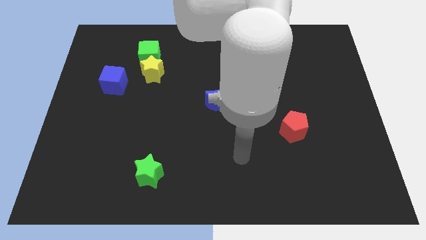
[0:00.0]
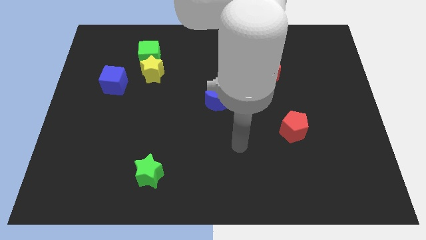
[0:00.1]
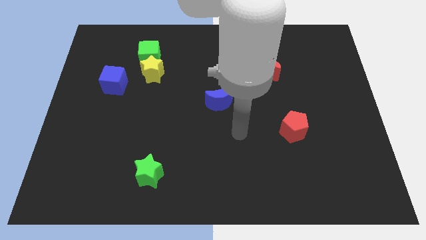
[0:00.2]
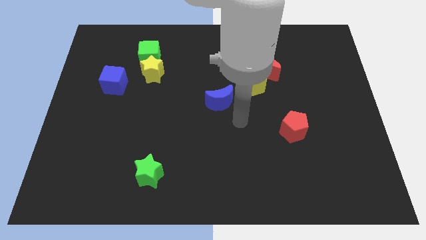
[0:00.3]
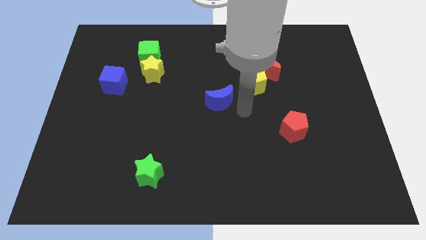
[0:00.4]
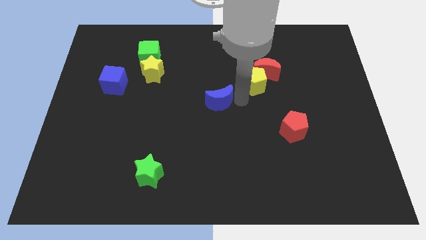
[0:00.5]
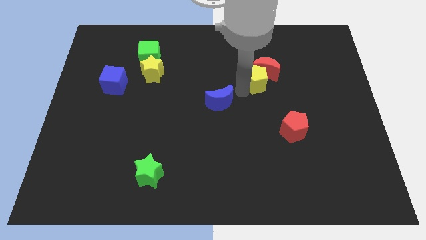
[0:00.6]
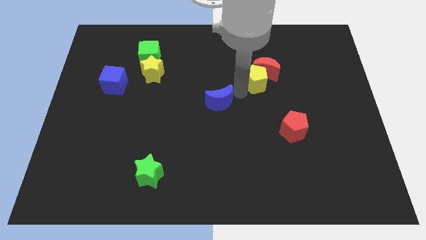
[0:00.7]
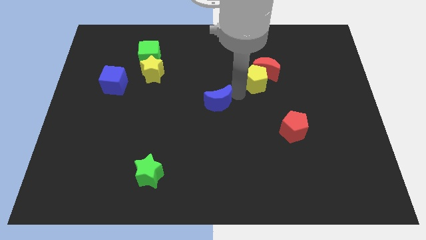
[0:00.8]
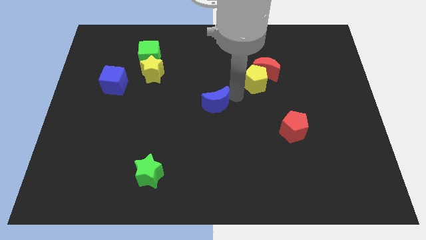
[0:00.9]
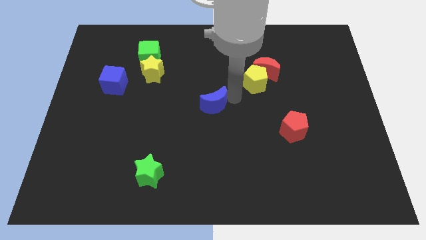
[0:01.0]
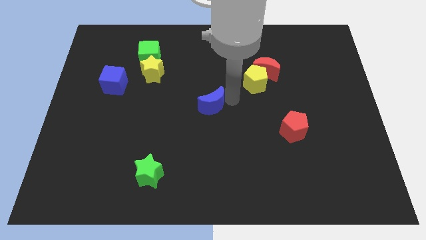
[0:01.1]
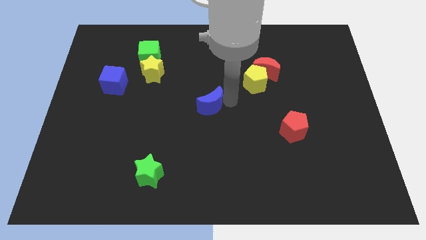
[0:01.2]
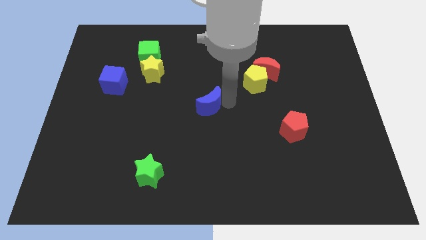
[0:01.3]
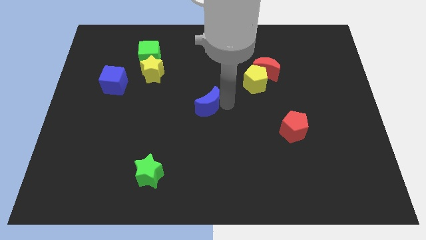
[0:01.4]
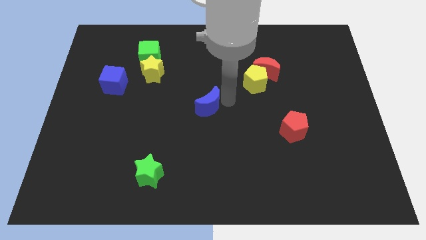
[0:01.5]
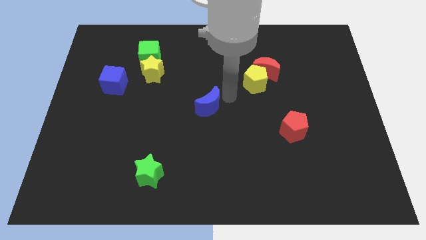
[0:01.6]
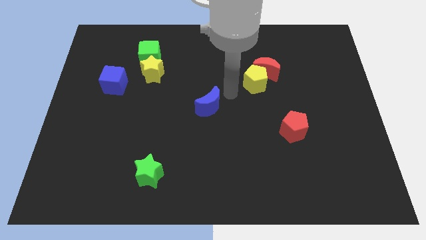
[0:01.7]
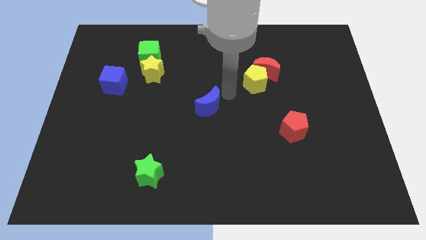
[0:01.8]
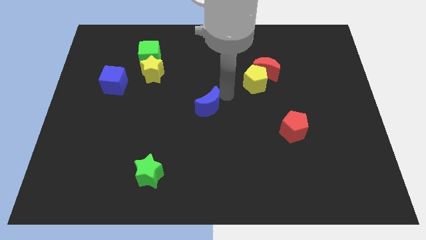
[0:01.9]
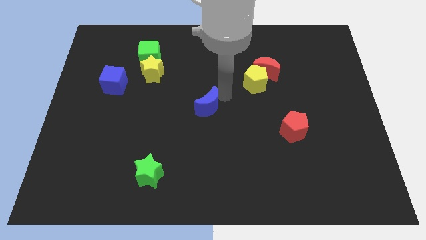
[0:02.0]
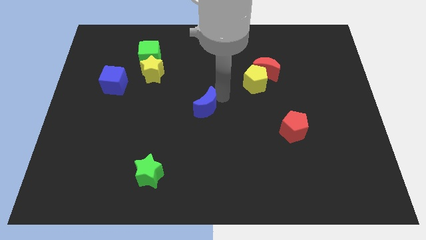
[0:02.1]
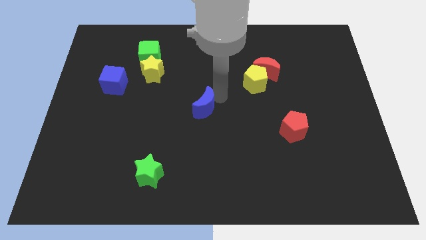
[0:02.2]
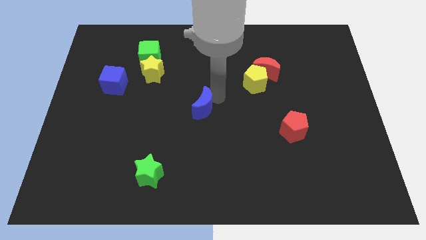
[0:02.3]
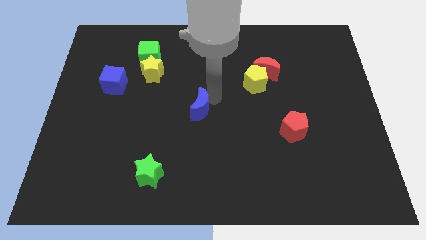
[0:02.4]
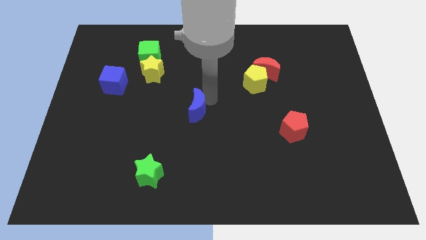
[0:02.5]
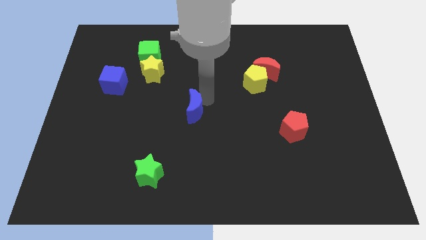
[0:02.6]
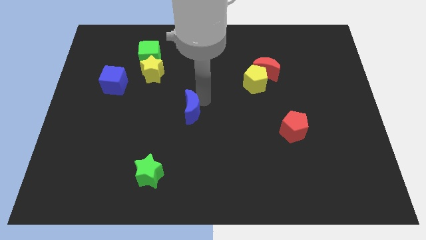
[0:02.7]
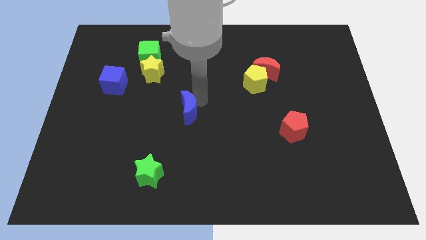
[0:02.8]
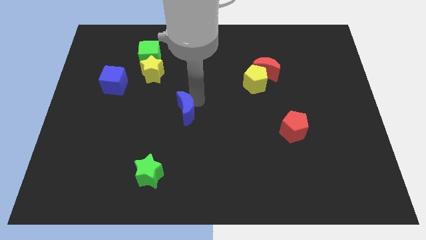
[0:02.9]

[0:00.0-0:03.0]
slightly slide the blue moon down and then left

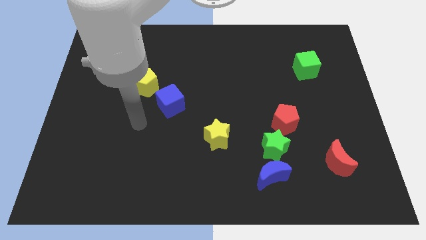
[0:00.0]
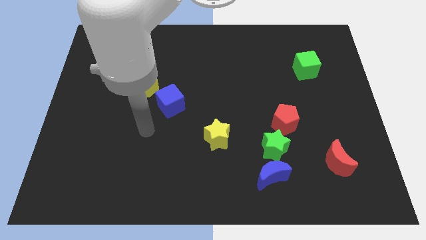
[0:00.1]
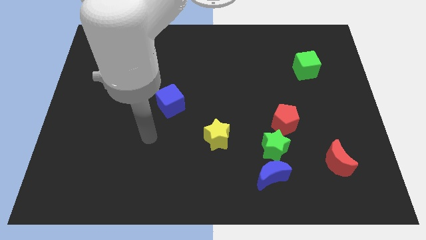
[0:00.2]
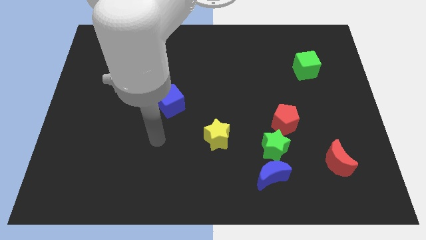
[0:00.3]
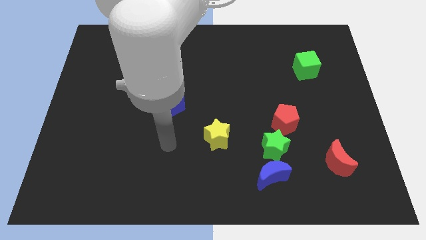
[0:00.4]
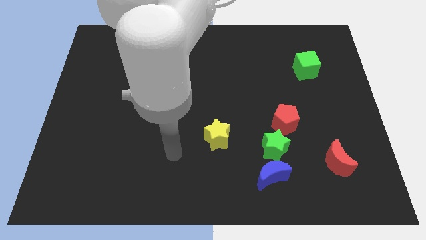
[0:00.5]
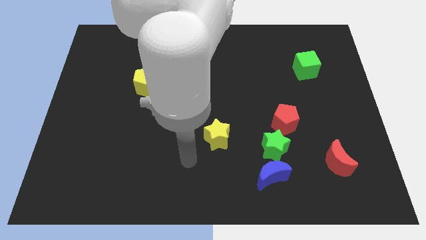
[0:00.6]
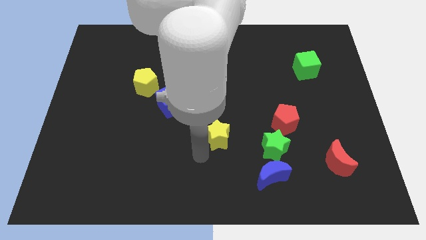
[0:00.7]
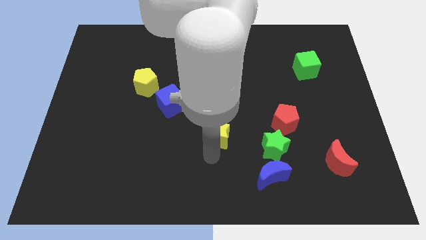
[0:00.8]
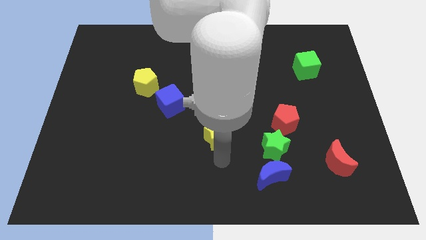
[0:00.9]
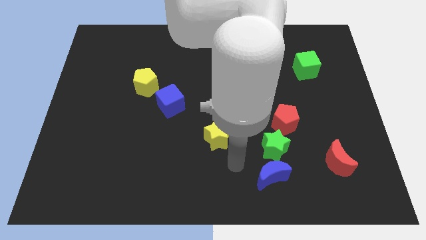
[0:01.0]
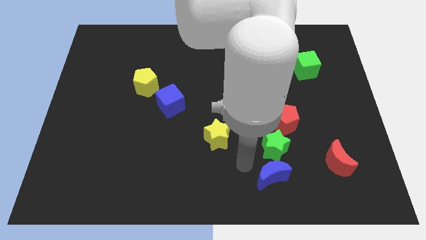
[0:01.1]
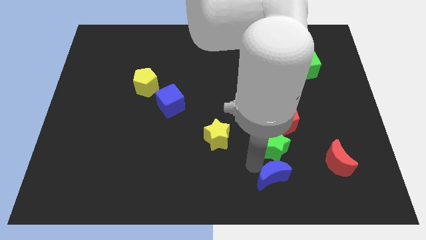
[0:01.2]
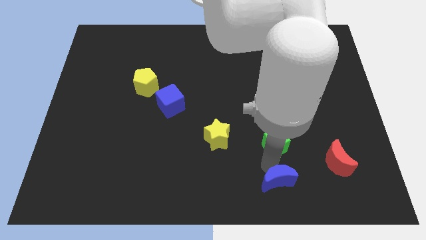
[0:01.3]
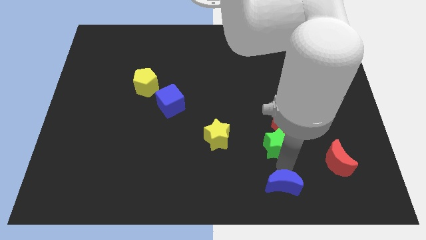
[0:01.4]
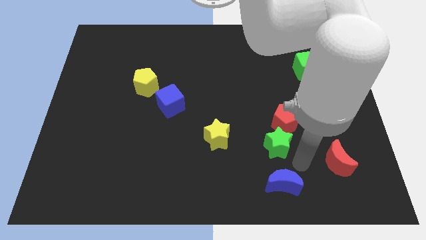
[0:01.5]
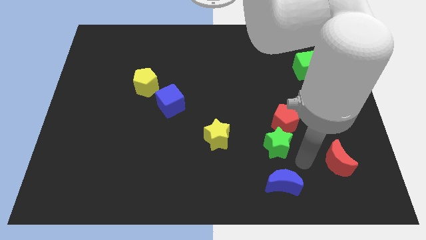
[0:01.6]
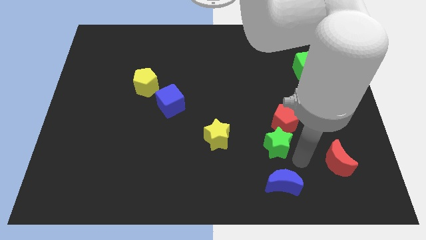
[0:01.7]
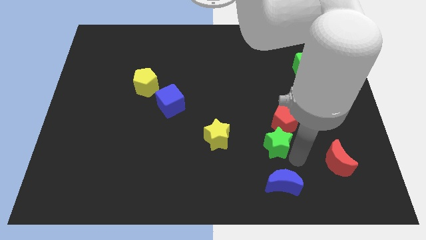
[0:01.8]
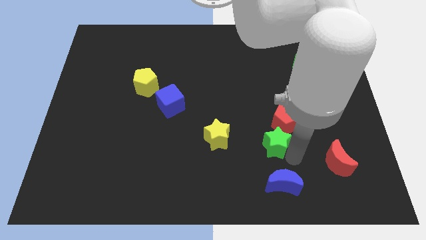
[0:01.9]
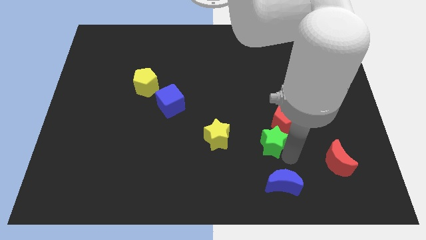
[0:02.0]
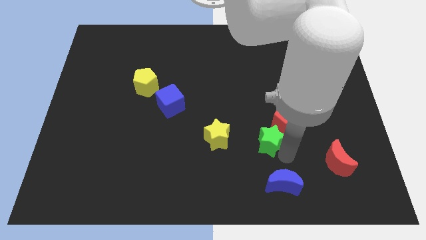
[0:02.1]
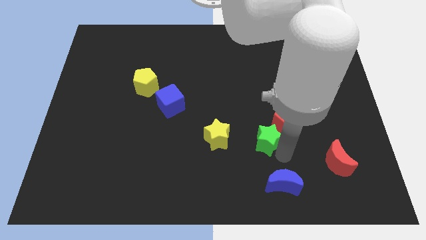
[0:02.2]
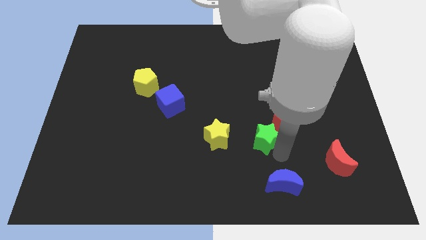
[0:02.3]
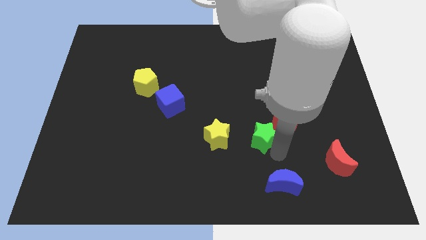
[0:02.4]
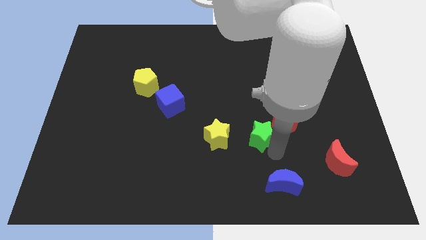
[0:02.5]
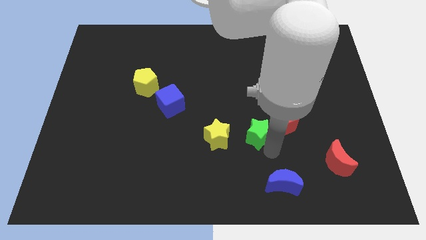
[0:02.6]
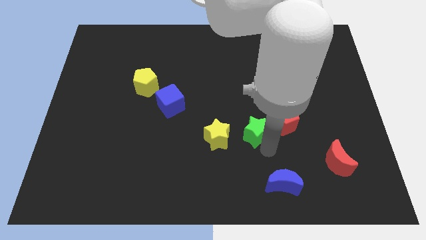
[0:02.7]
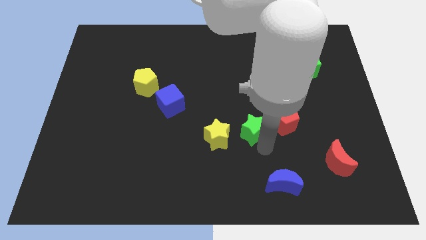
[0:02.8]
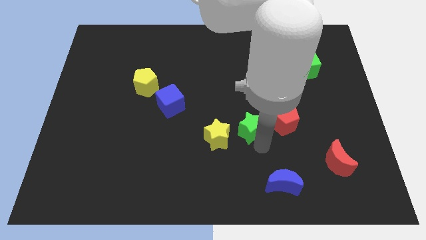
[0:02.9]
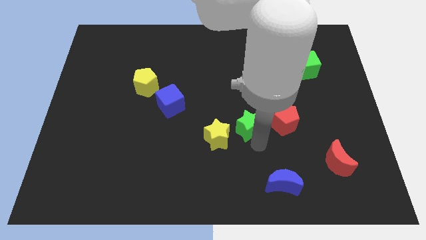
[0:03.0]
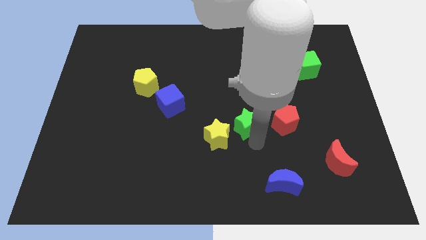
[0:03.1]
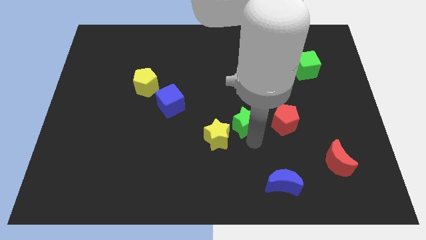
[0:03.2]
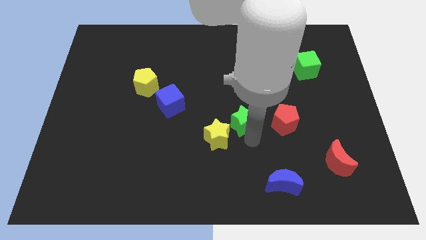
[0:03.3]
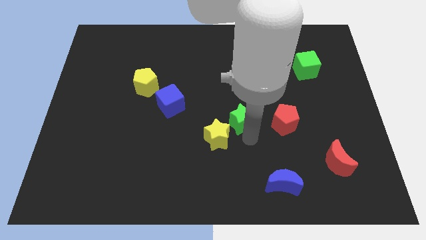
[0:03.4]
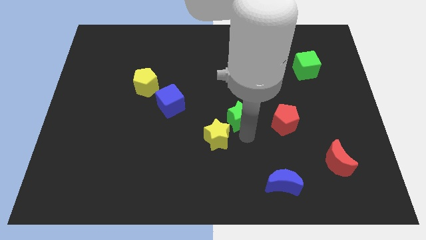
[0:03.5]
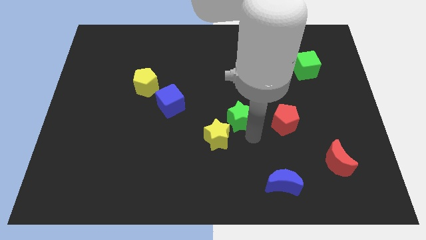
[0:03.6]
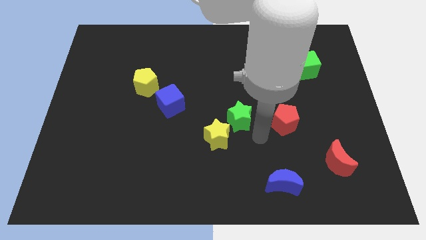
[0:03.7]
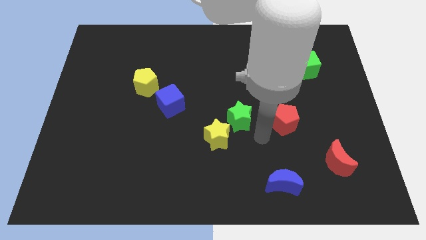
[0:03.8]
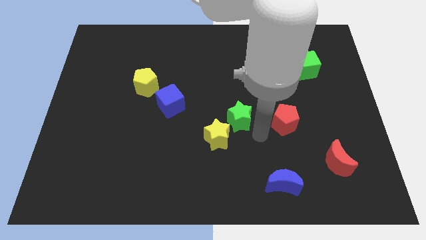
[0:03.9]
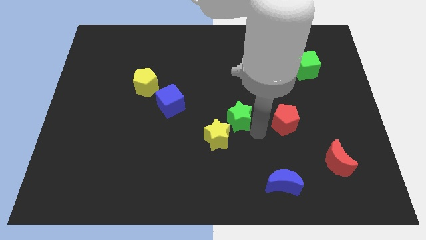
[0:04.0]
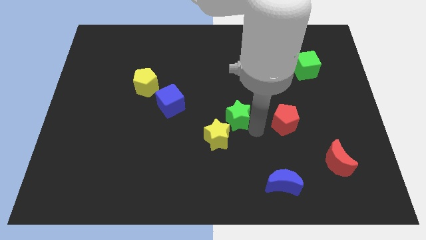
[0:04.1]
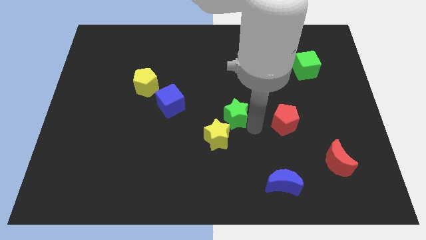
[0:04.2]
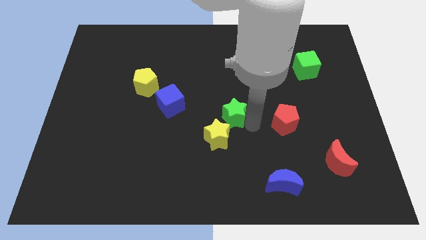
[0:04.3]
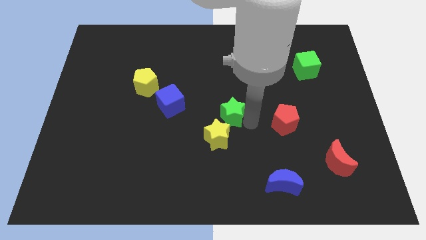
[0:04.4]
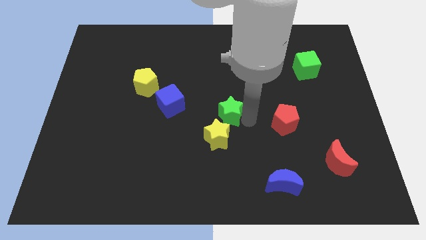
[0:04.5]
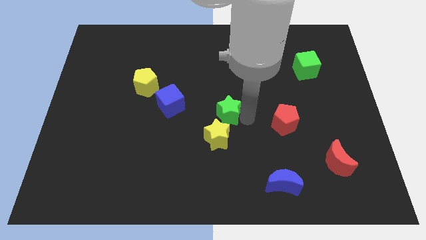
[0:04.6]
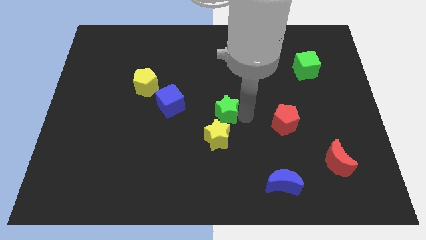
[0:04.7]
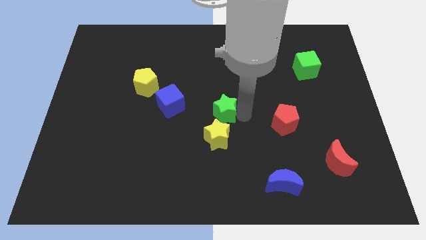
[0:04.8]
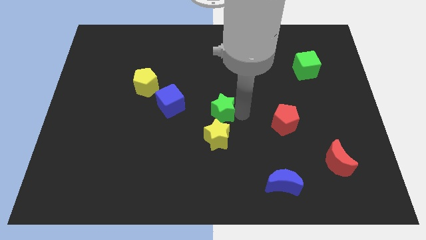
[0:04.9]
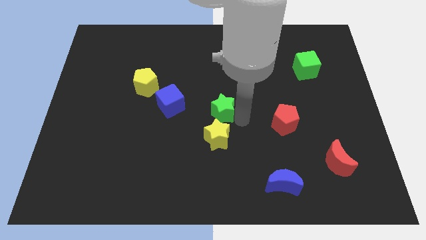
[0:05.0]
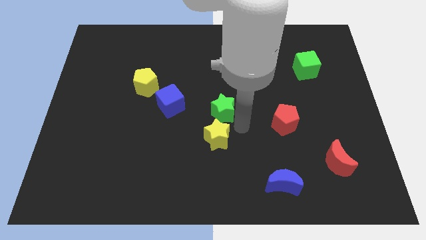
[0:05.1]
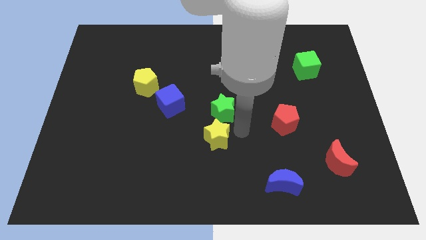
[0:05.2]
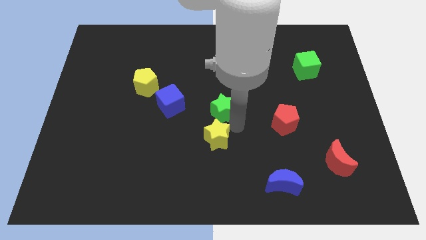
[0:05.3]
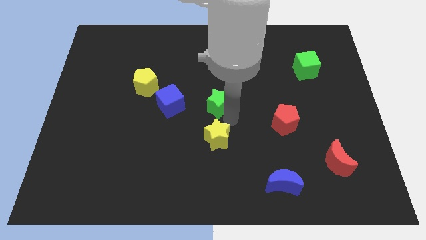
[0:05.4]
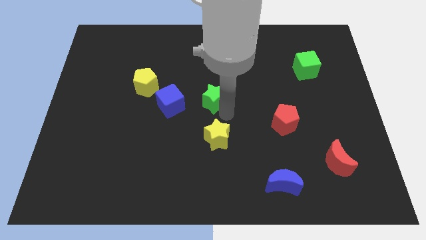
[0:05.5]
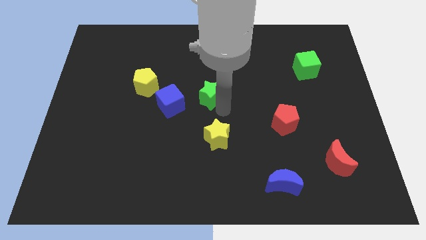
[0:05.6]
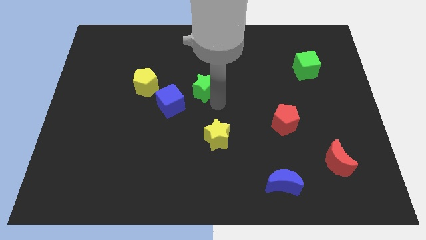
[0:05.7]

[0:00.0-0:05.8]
move the green star upwards and to the left diagonally
